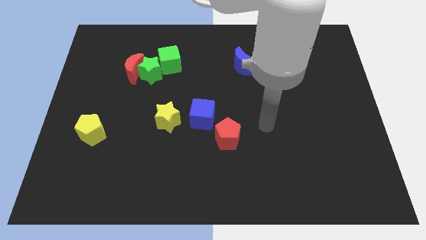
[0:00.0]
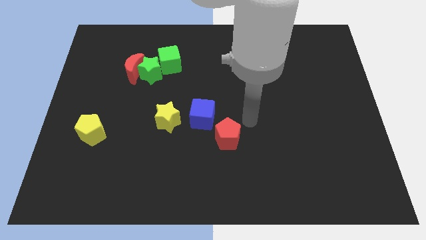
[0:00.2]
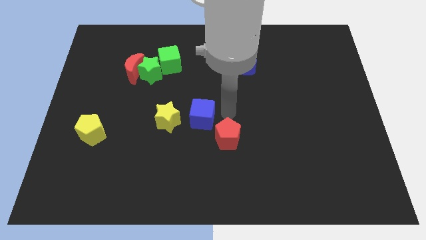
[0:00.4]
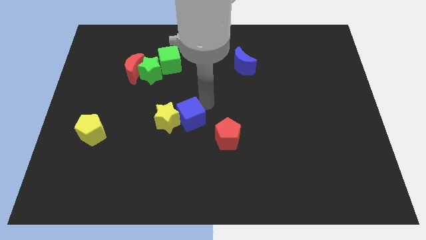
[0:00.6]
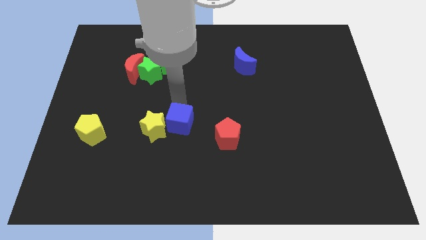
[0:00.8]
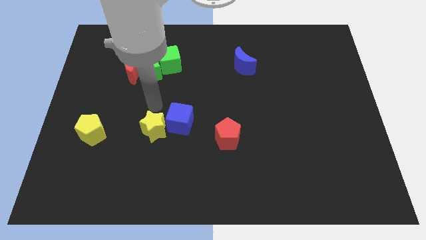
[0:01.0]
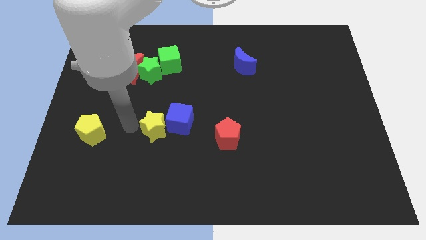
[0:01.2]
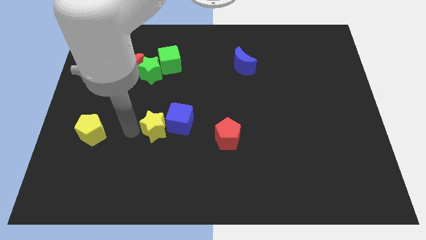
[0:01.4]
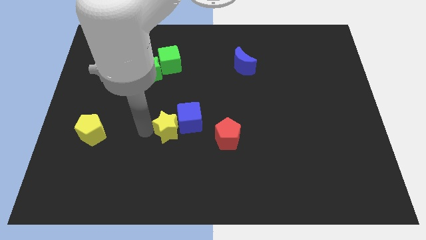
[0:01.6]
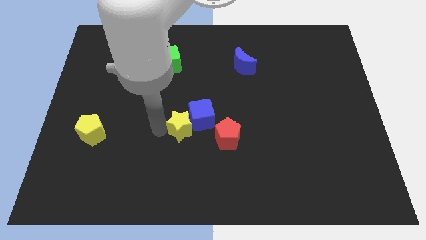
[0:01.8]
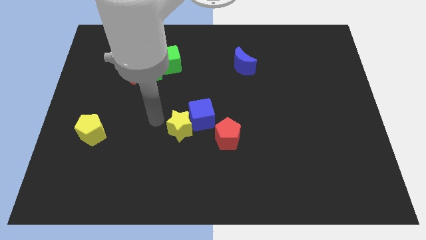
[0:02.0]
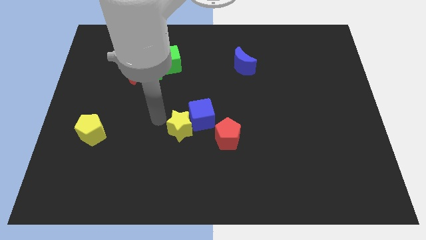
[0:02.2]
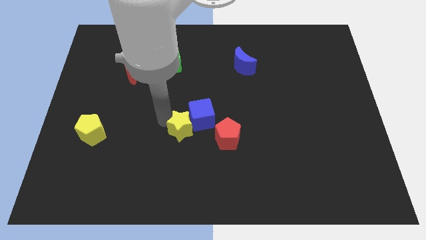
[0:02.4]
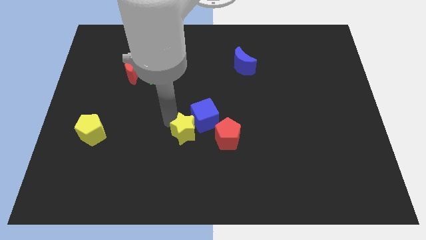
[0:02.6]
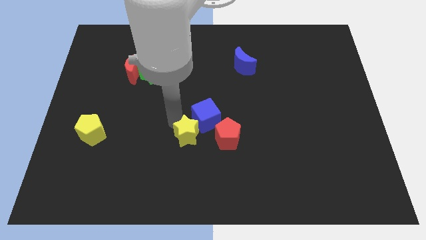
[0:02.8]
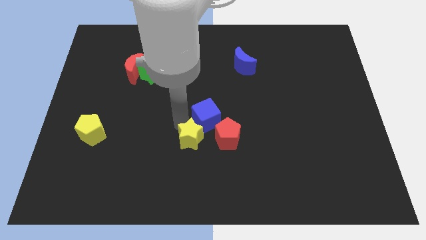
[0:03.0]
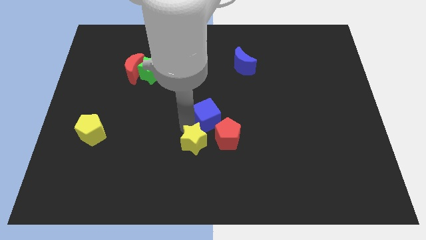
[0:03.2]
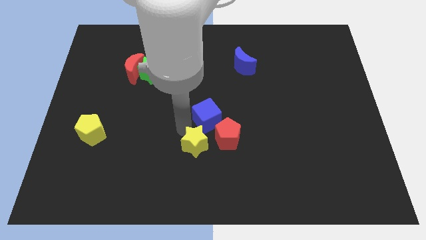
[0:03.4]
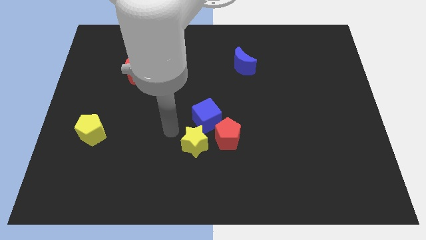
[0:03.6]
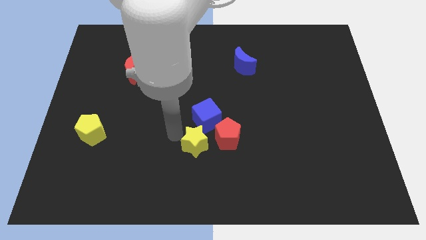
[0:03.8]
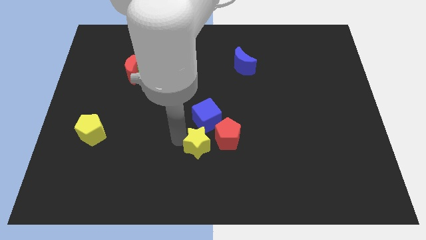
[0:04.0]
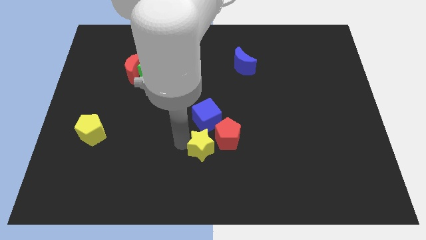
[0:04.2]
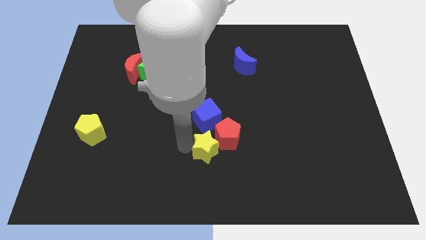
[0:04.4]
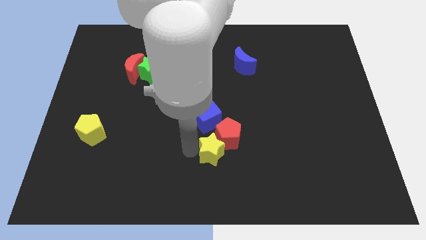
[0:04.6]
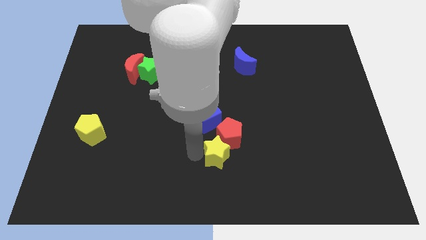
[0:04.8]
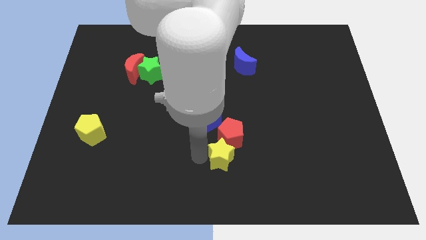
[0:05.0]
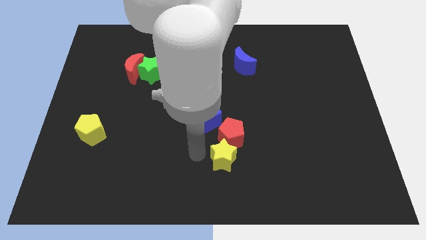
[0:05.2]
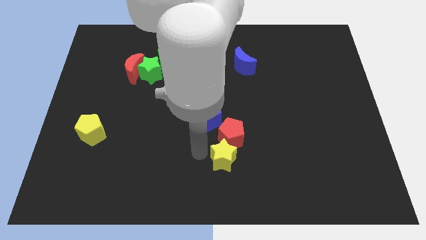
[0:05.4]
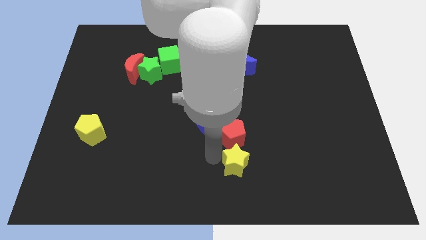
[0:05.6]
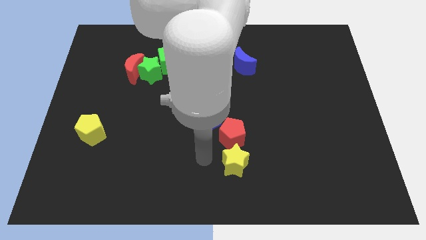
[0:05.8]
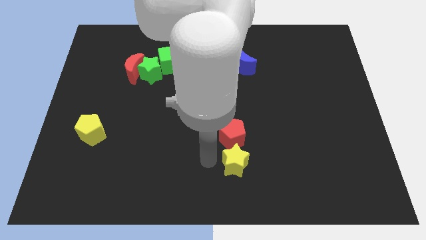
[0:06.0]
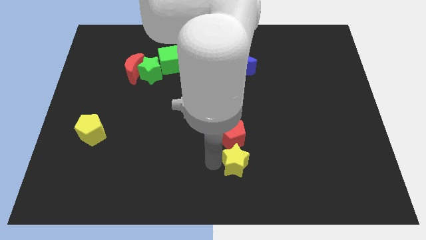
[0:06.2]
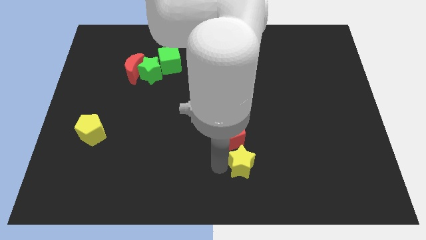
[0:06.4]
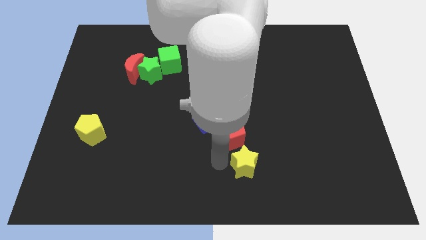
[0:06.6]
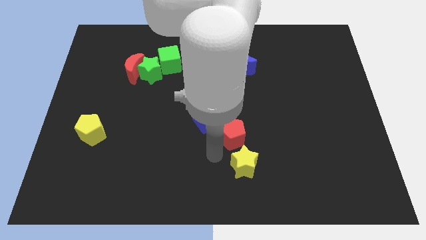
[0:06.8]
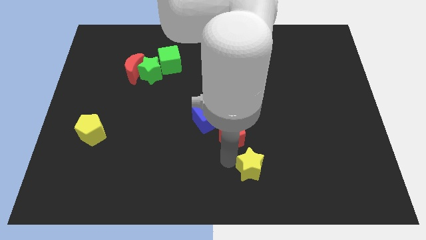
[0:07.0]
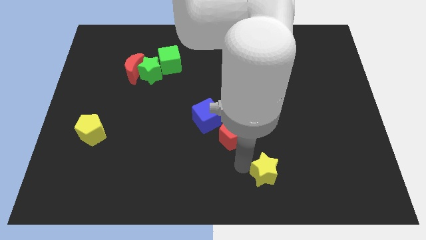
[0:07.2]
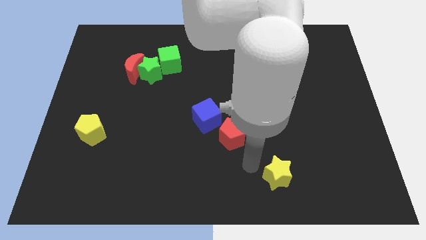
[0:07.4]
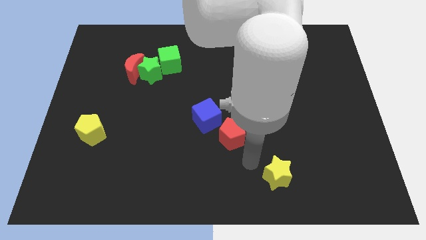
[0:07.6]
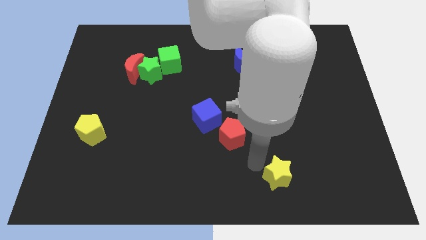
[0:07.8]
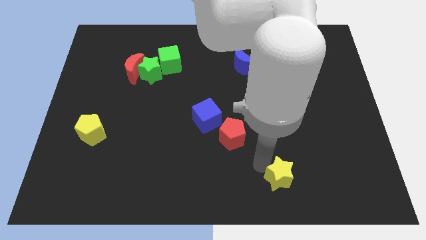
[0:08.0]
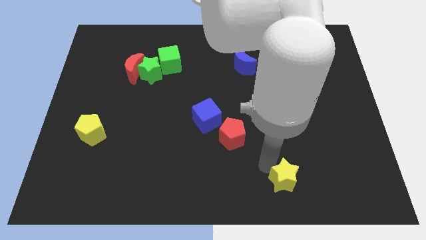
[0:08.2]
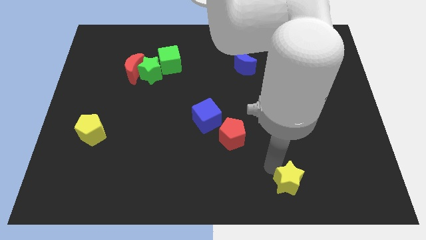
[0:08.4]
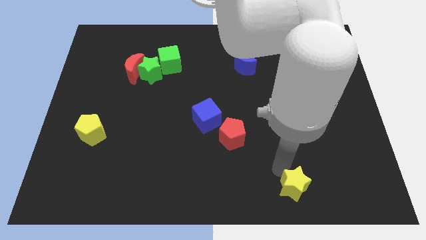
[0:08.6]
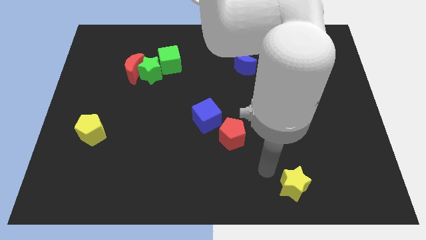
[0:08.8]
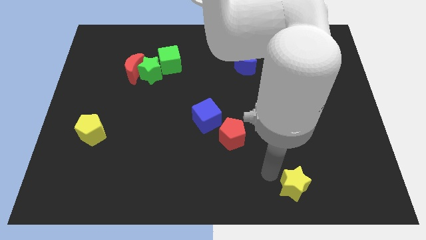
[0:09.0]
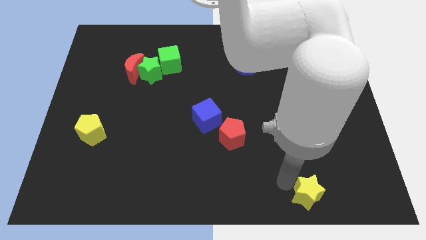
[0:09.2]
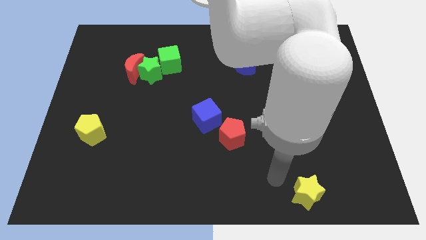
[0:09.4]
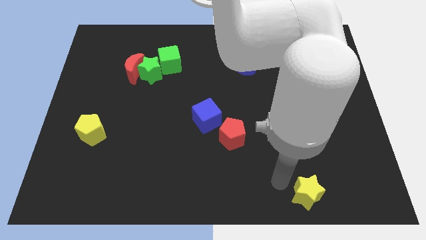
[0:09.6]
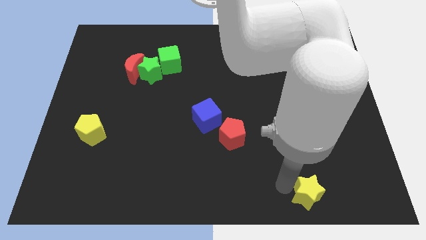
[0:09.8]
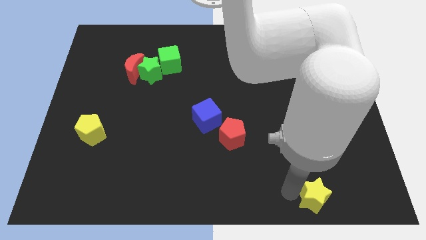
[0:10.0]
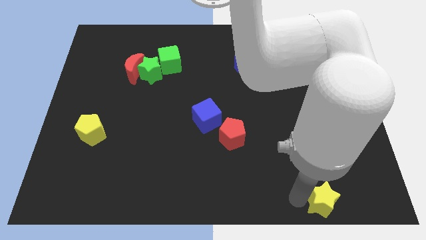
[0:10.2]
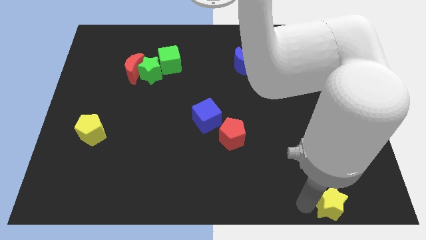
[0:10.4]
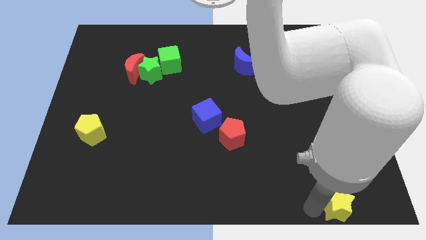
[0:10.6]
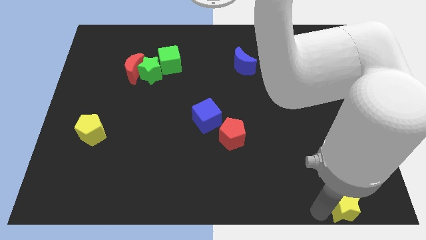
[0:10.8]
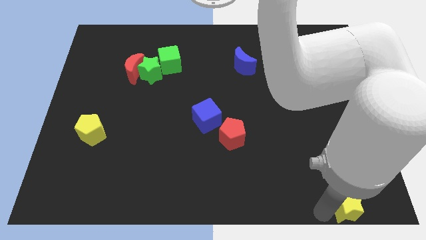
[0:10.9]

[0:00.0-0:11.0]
push the yellow star to the bottom right

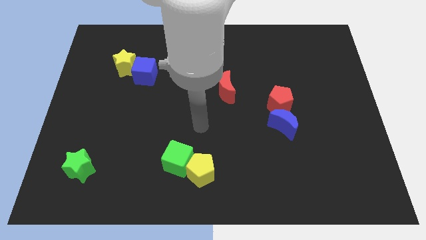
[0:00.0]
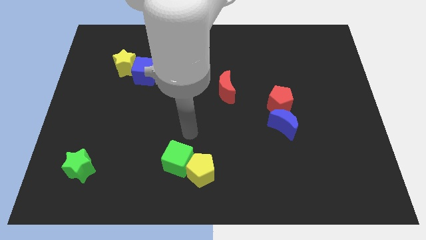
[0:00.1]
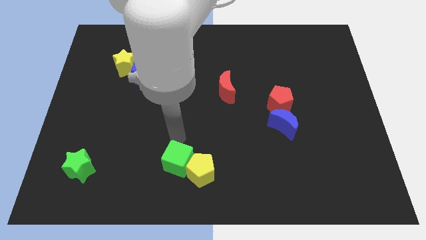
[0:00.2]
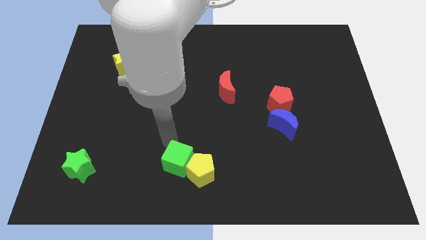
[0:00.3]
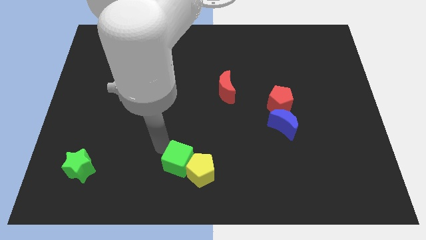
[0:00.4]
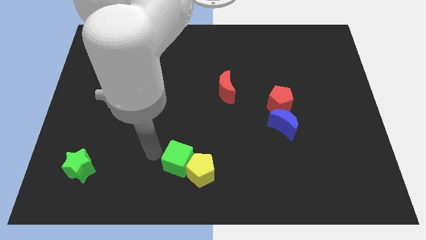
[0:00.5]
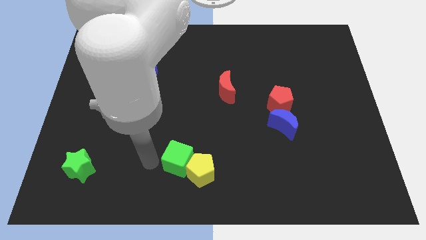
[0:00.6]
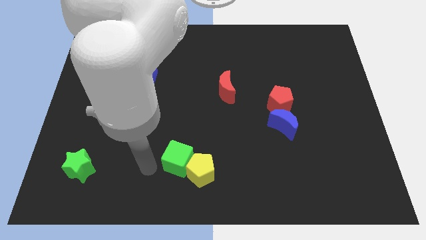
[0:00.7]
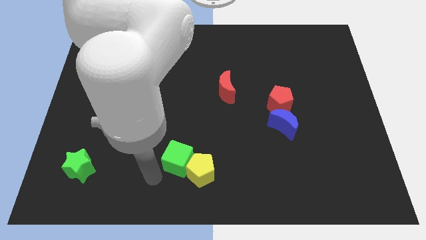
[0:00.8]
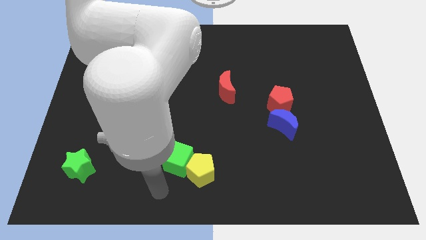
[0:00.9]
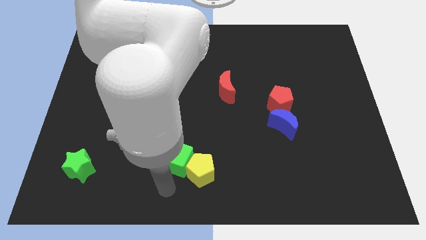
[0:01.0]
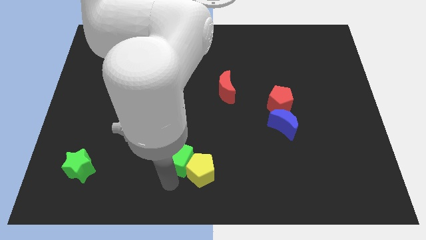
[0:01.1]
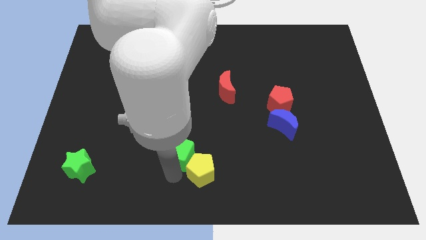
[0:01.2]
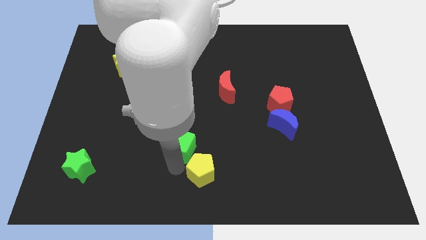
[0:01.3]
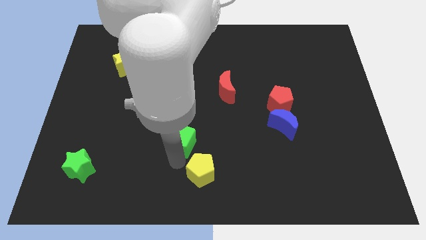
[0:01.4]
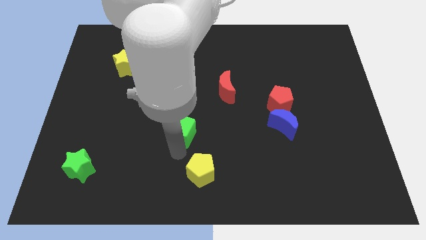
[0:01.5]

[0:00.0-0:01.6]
slide the green cube to the center of the board
